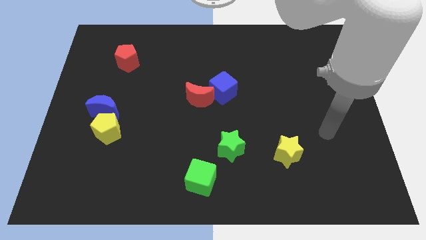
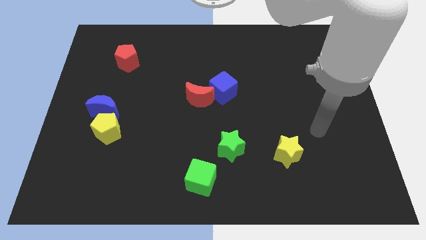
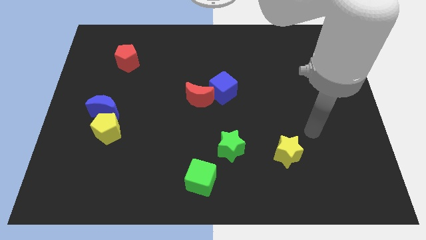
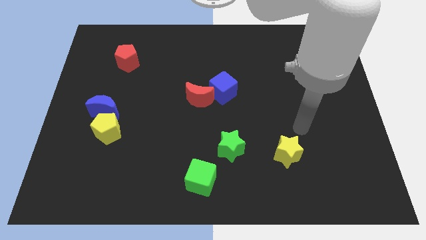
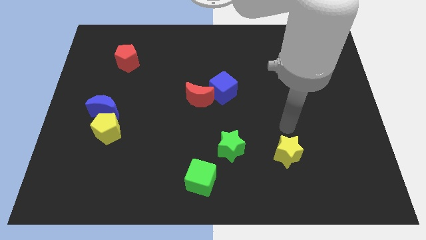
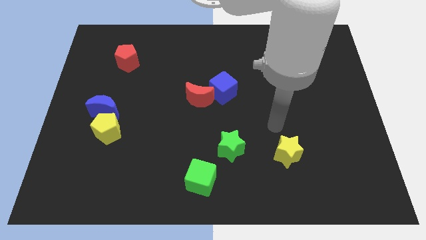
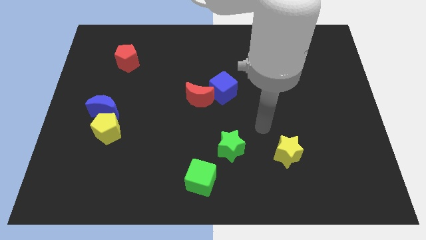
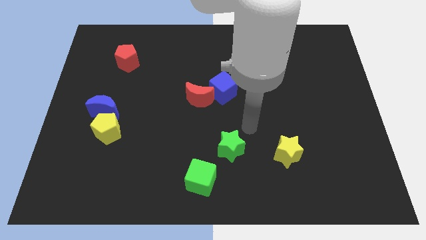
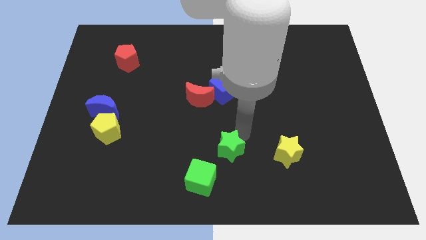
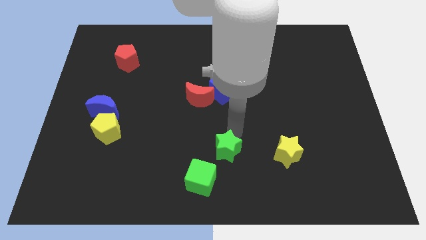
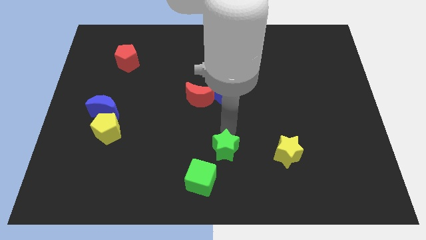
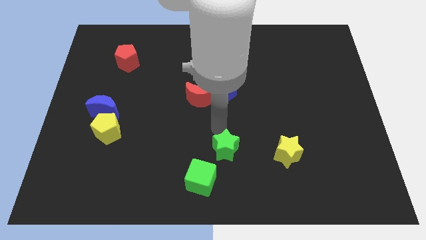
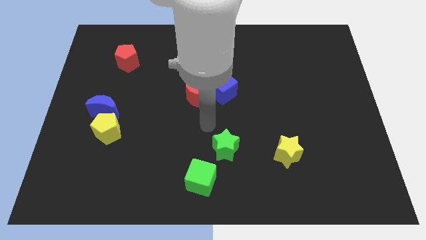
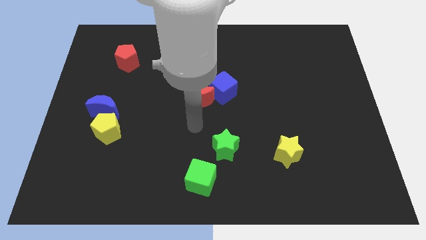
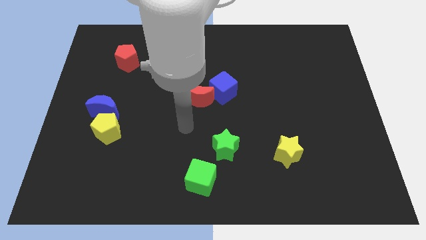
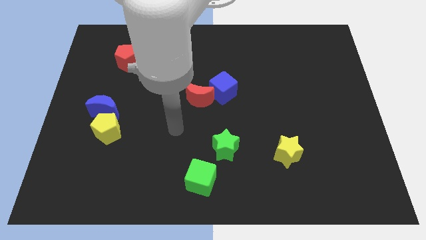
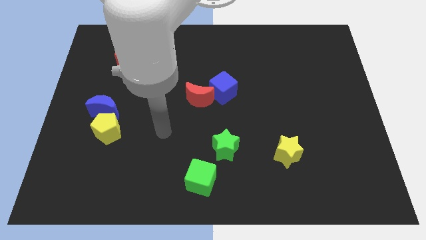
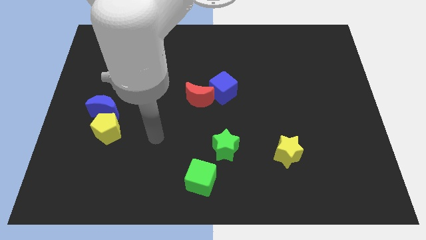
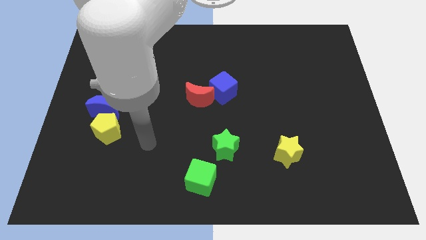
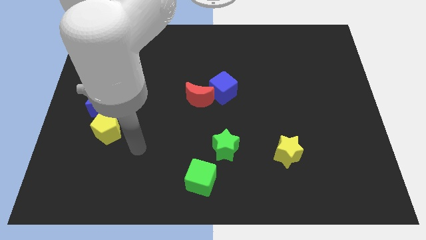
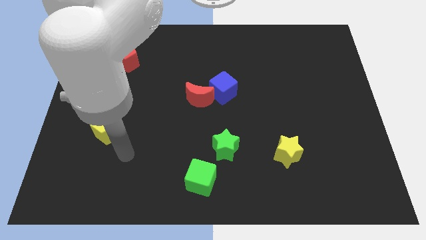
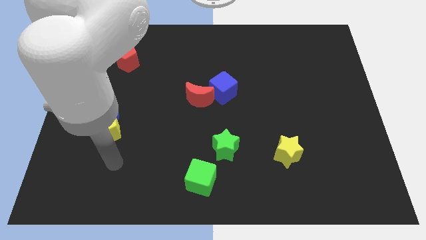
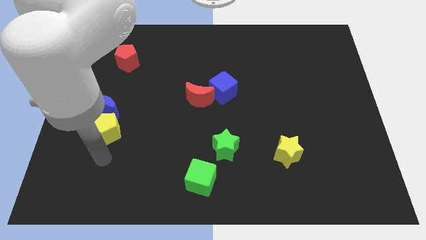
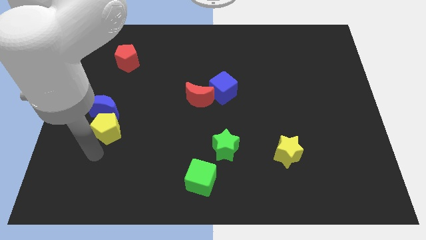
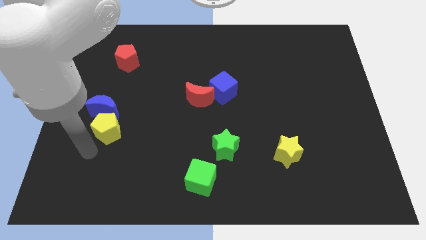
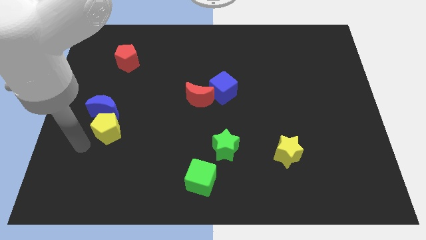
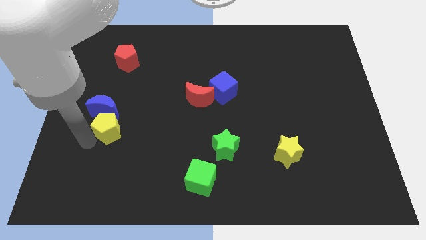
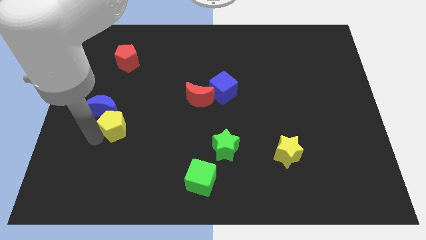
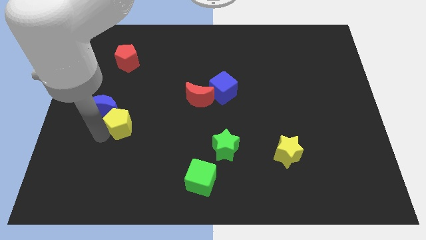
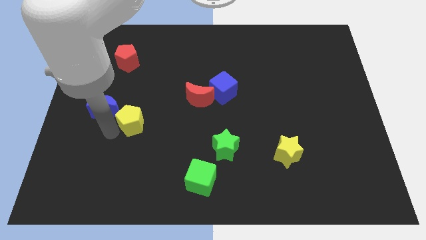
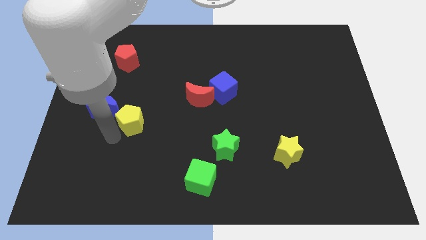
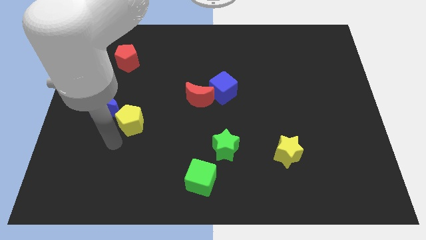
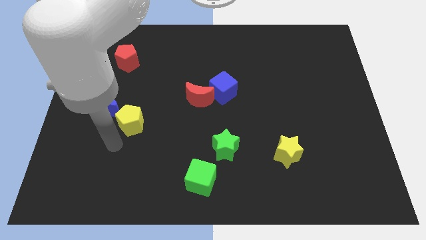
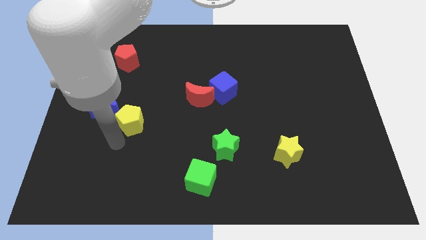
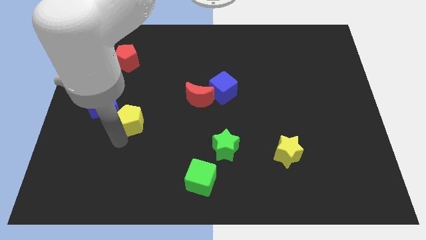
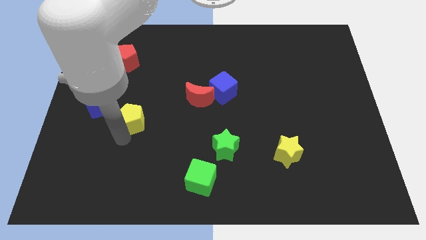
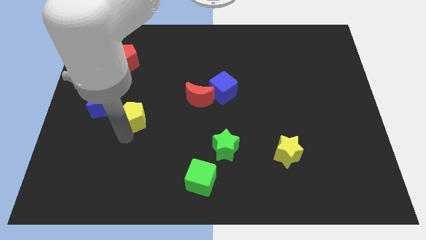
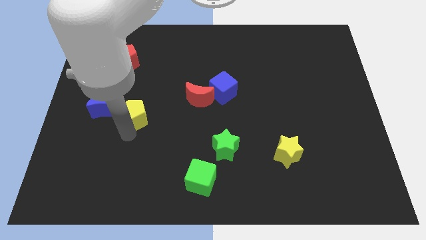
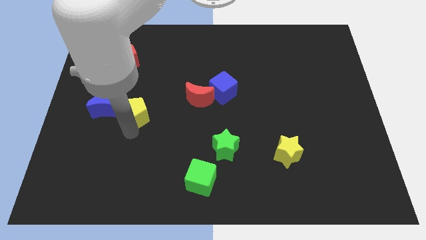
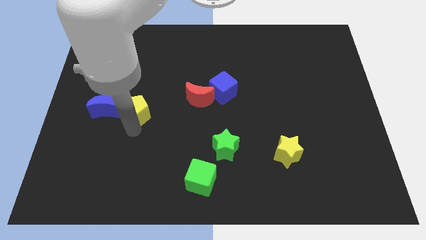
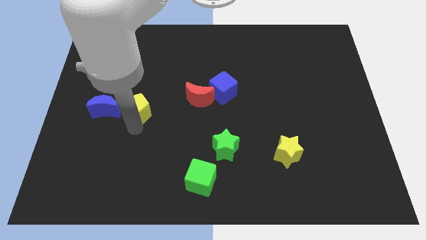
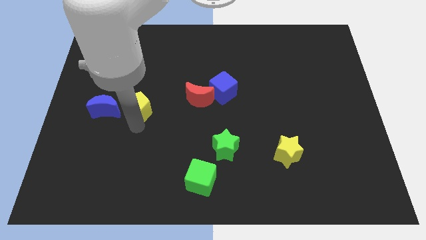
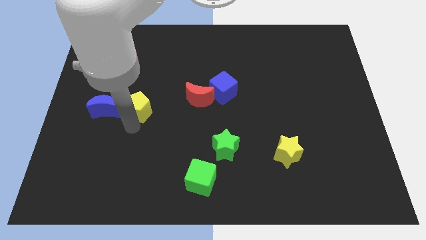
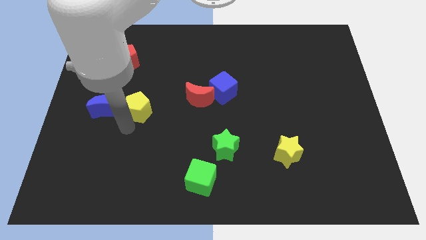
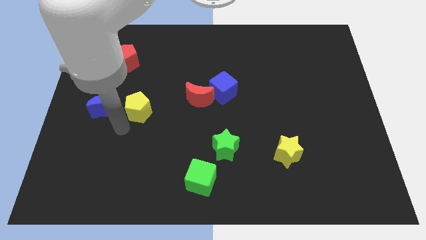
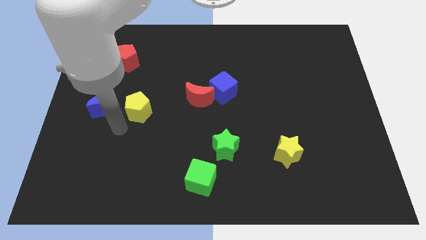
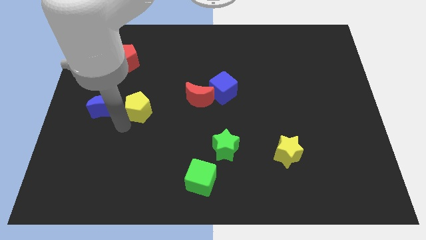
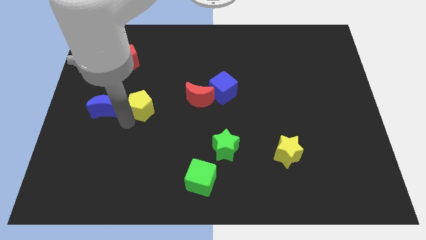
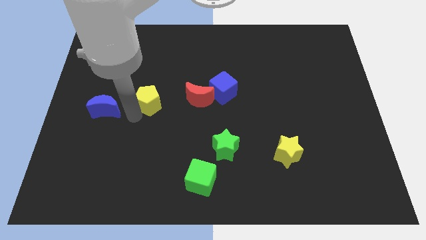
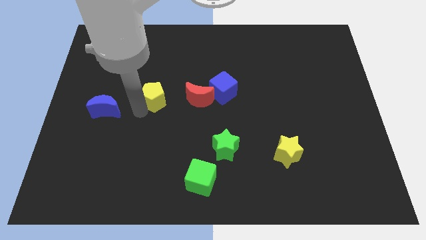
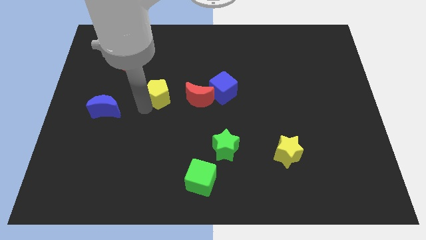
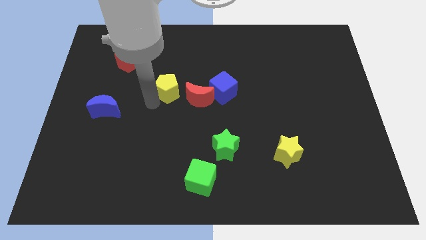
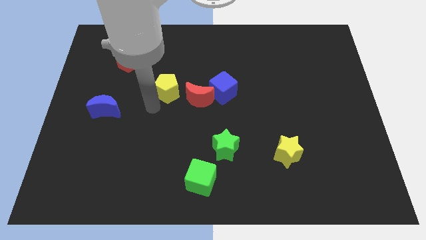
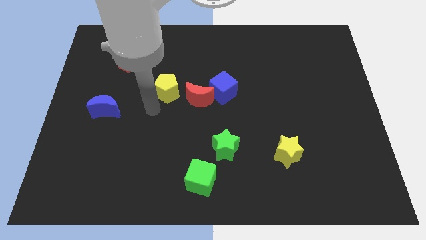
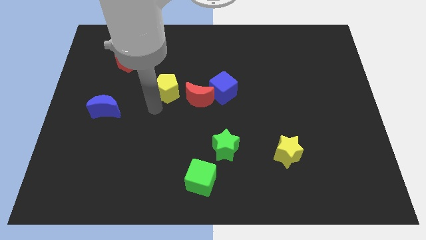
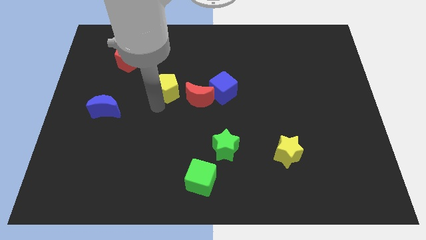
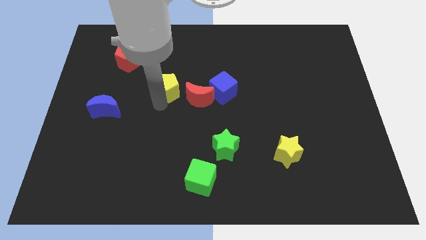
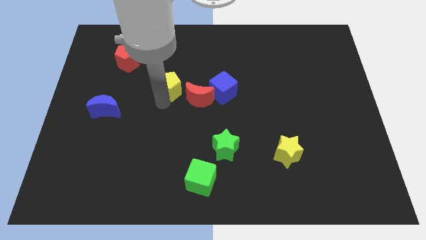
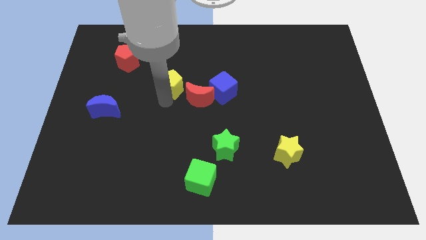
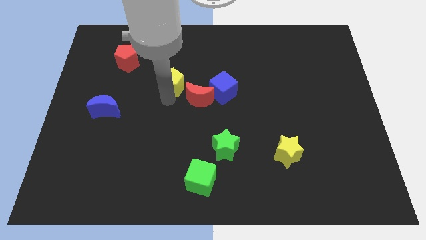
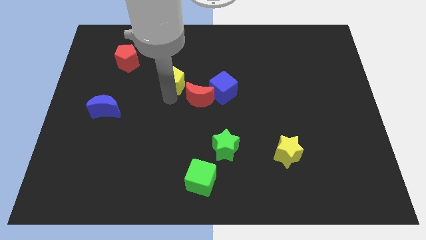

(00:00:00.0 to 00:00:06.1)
push the yellow pentagon up and to the right

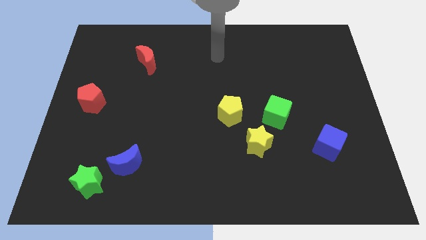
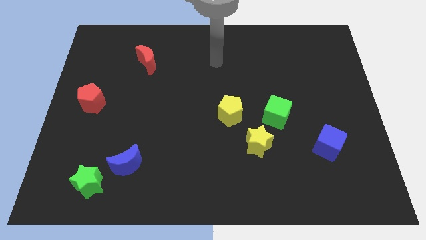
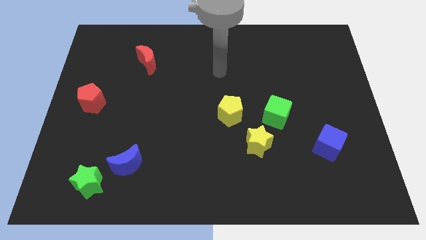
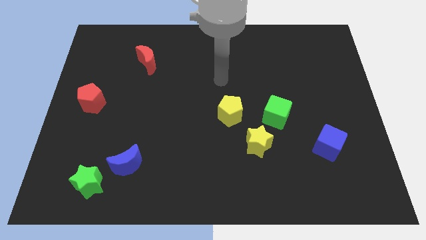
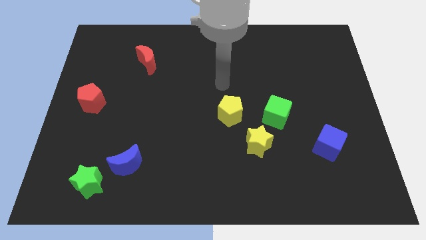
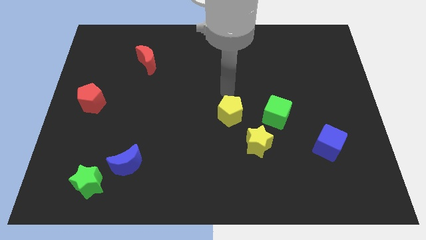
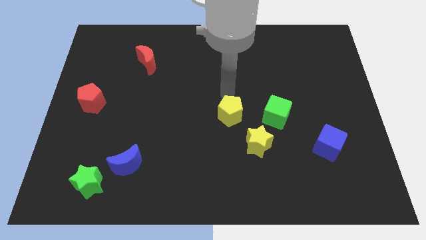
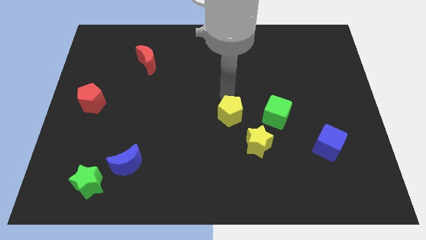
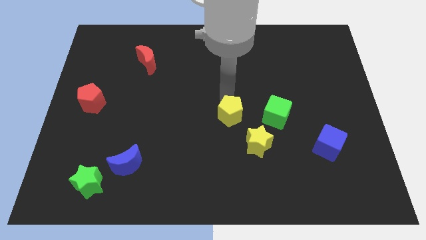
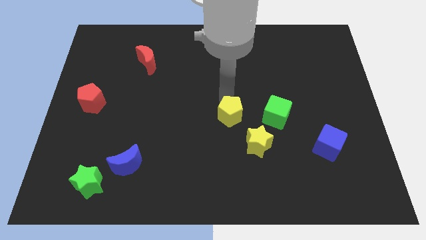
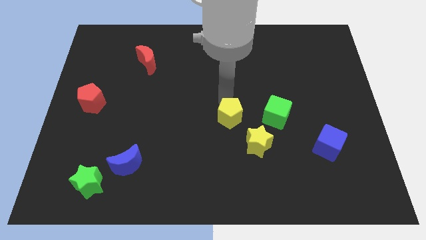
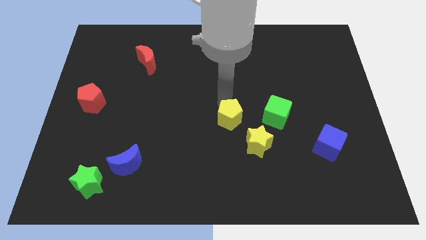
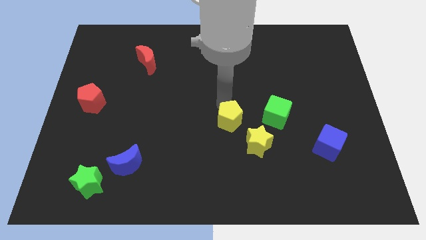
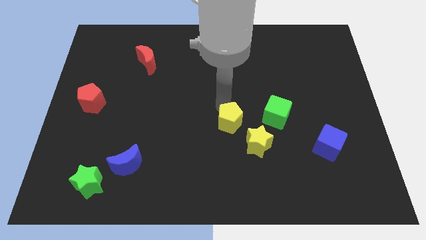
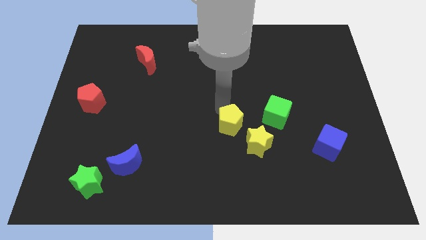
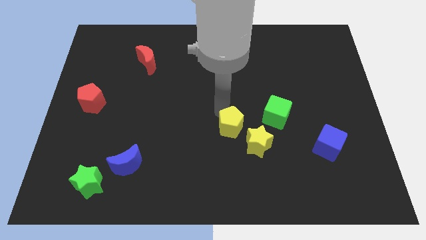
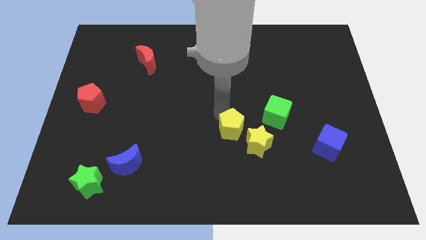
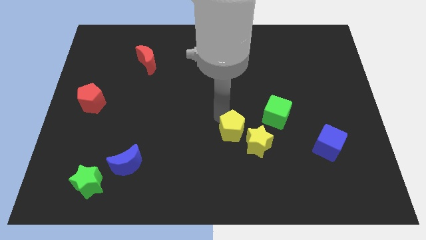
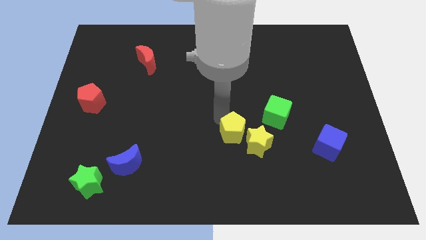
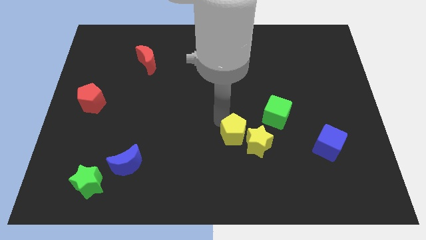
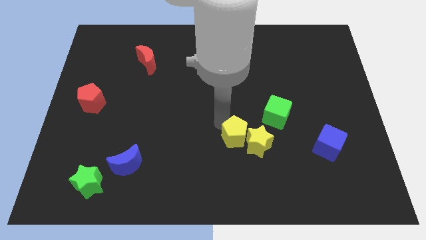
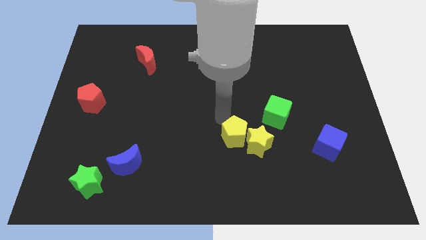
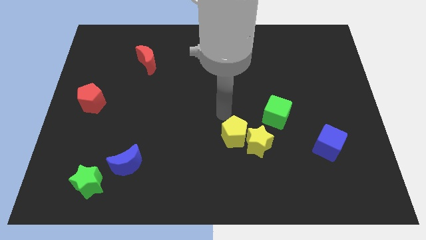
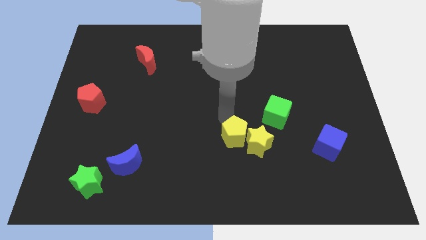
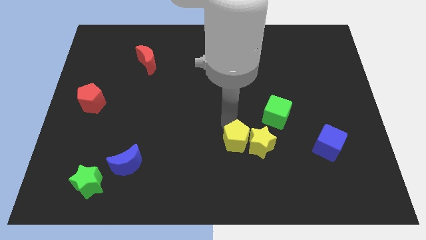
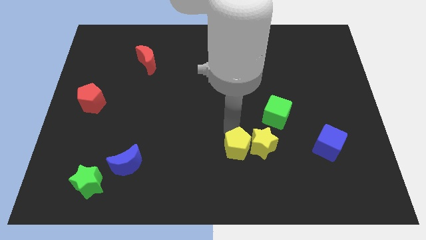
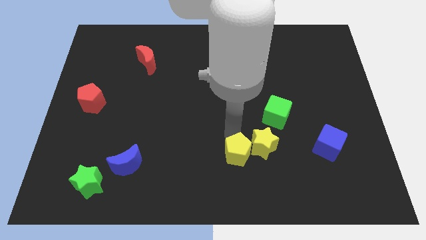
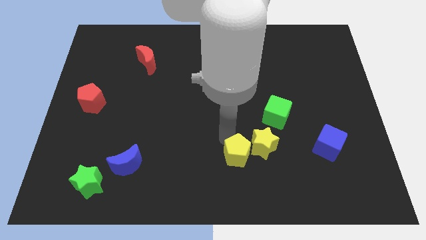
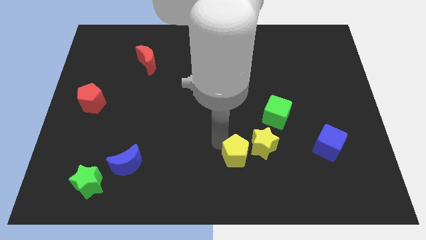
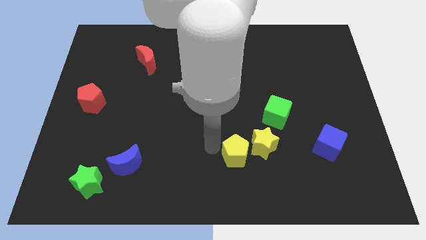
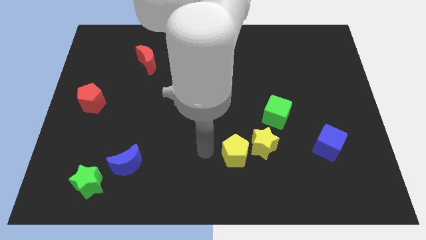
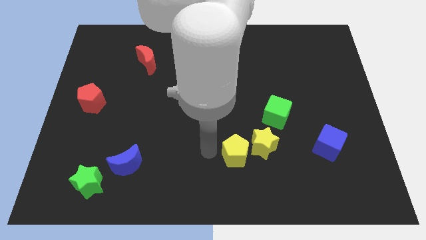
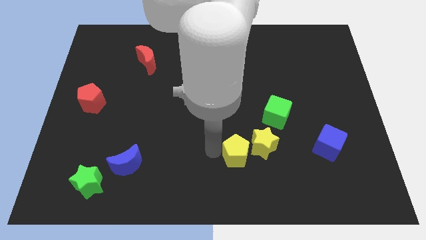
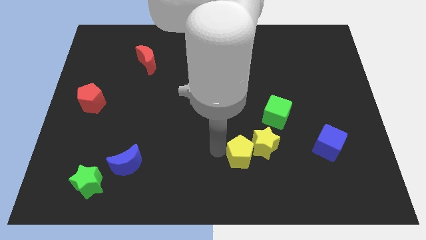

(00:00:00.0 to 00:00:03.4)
slightly push the yellow pentagon downwards and right
